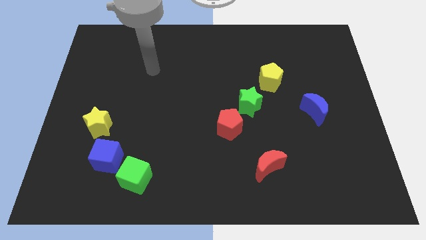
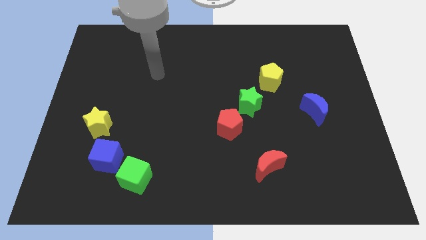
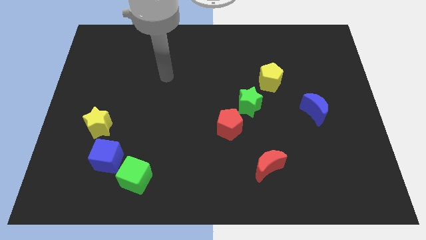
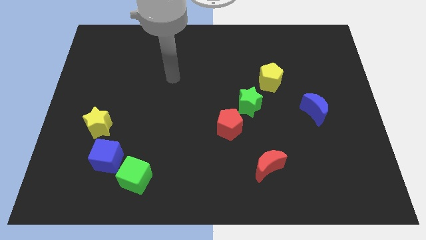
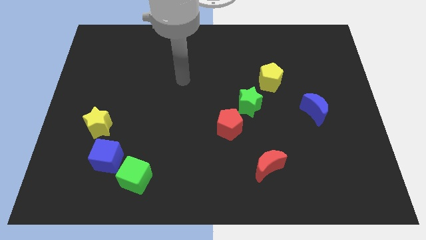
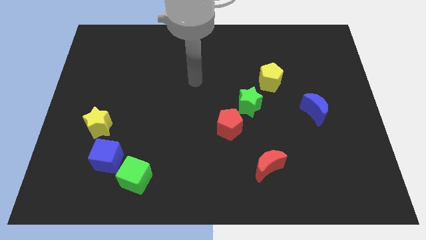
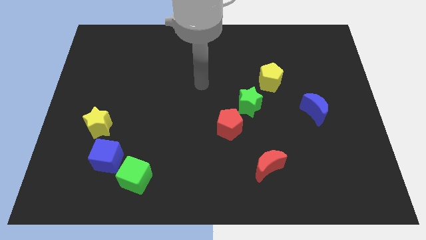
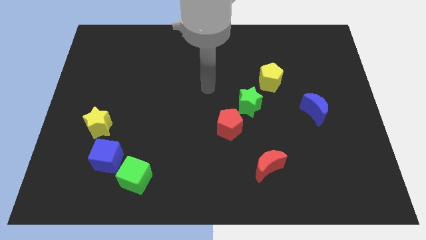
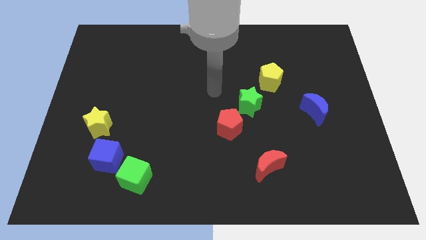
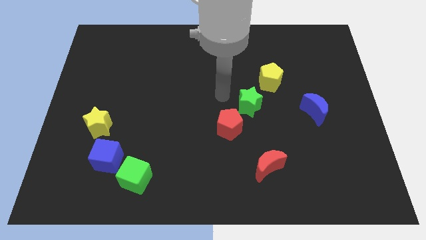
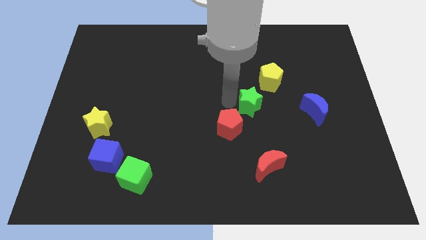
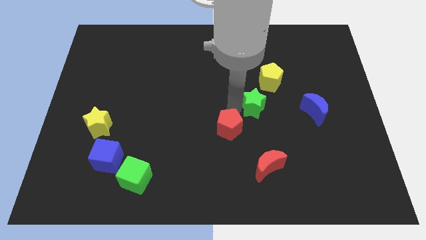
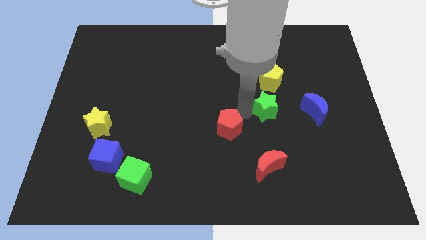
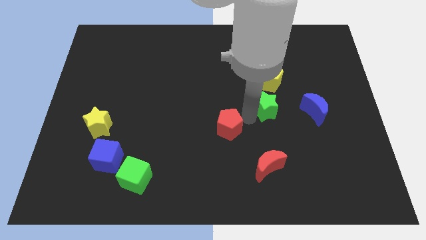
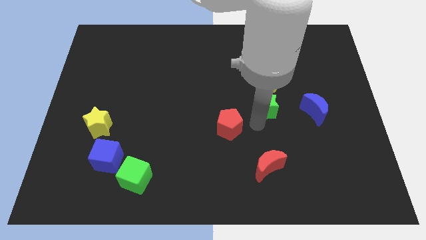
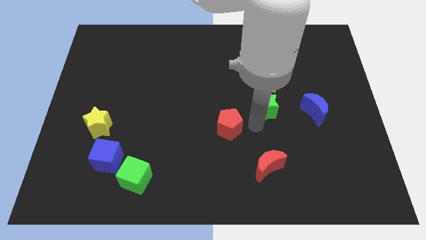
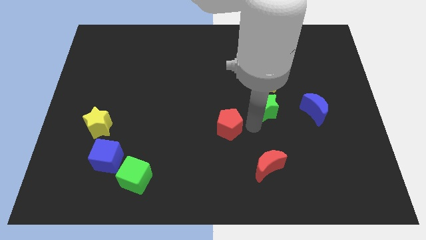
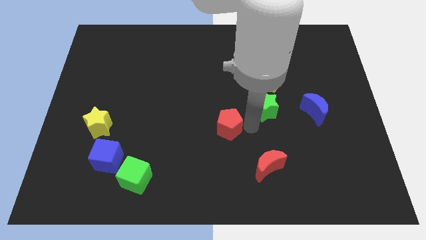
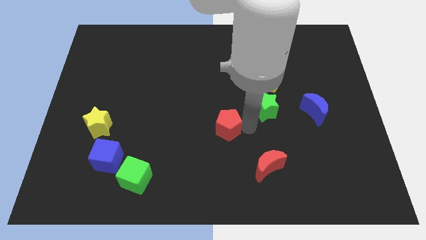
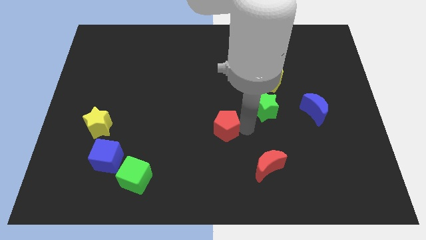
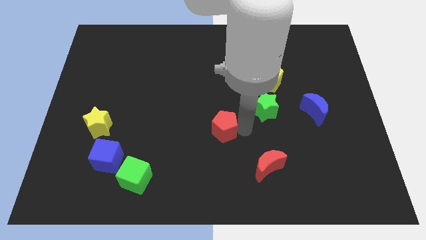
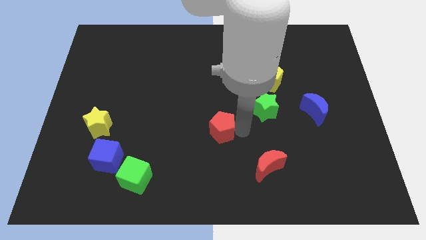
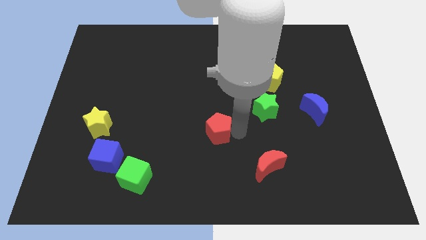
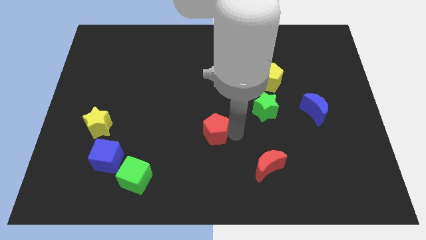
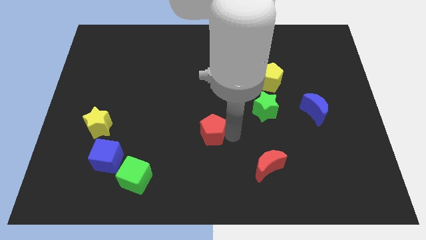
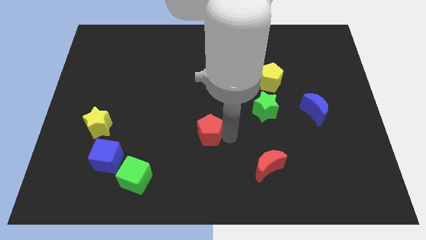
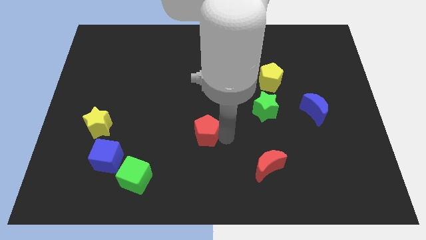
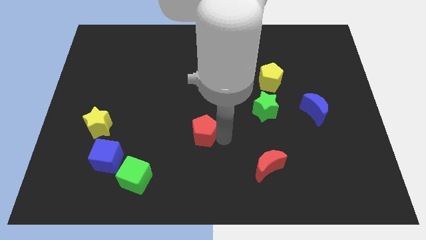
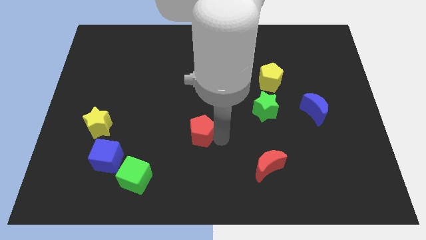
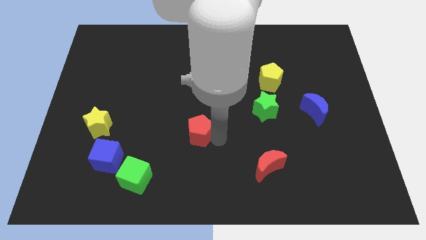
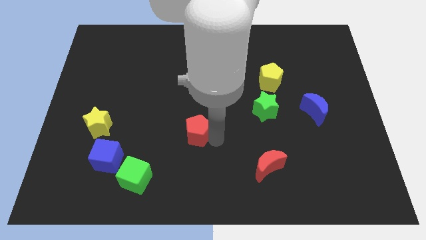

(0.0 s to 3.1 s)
slide the red pentagon a little bit left

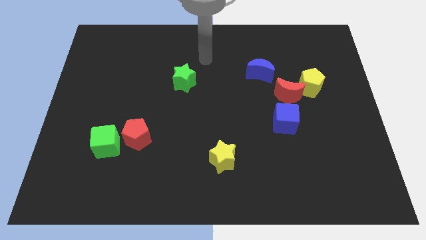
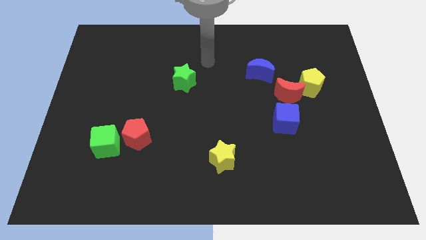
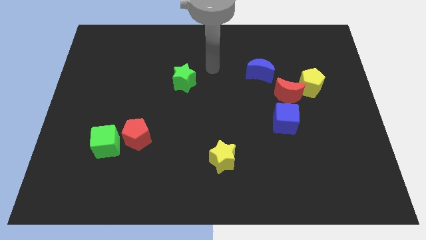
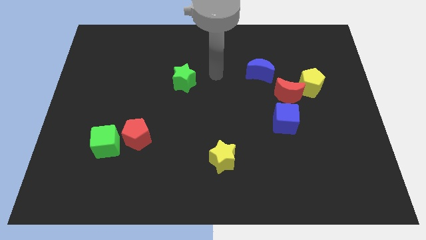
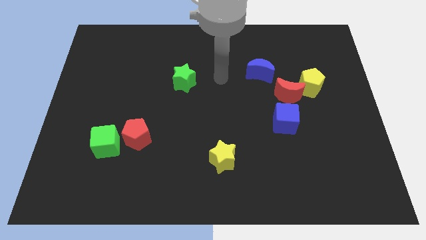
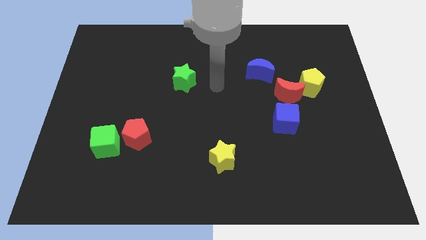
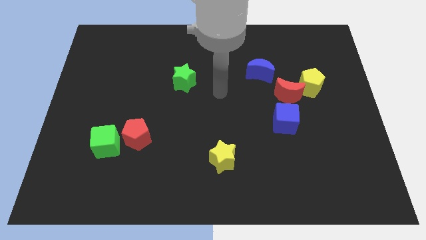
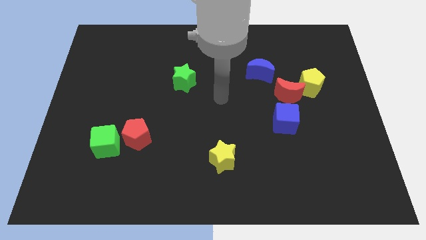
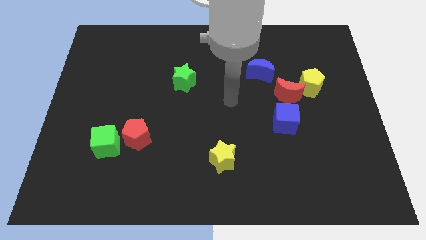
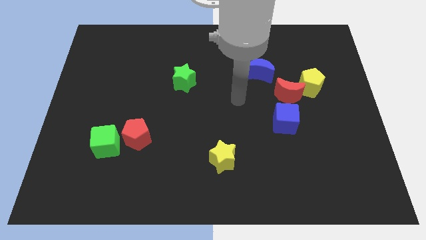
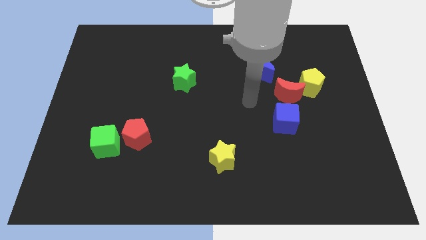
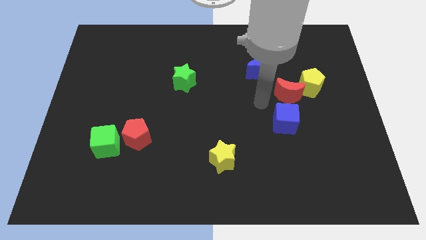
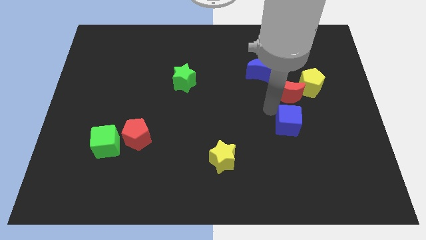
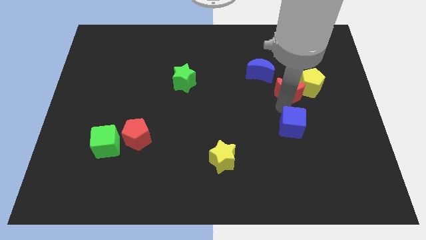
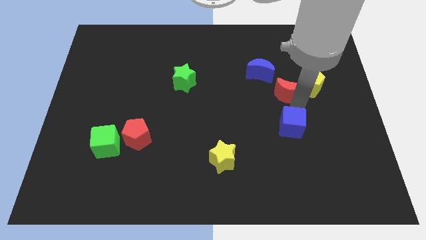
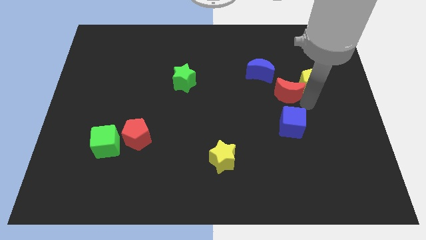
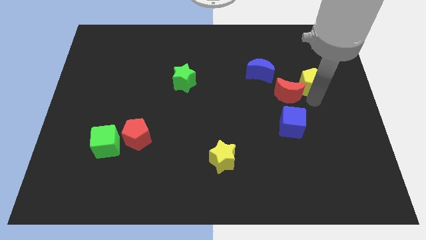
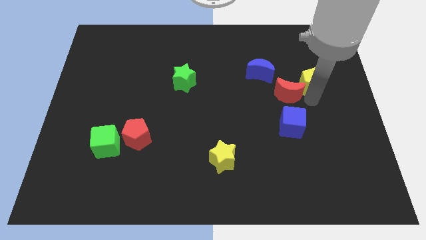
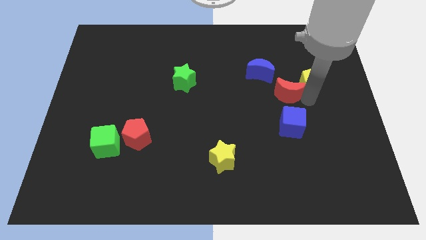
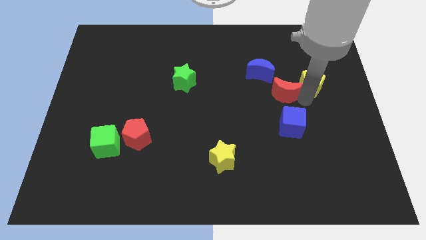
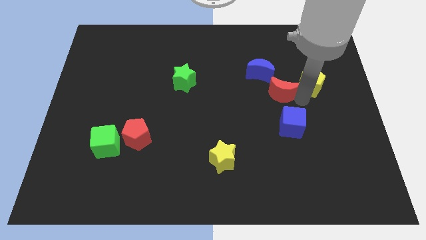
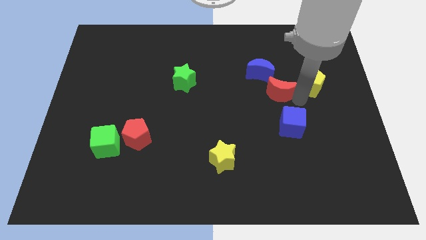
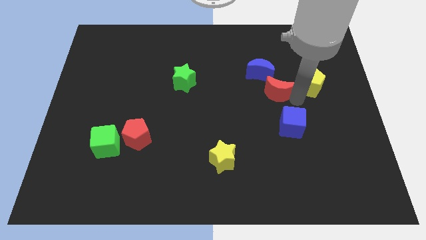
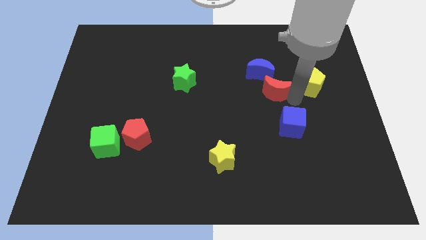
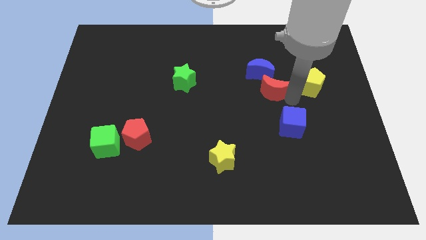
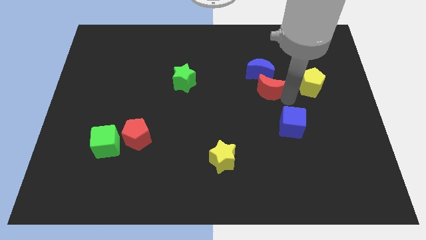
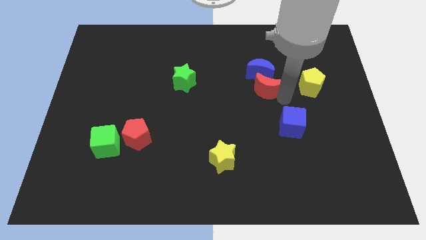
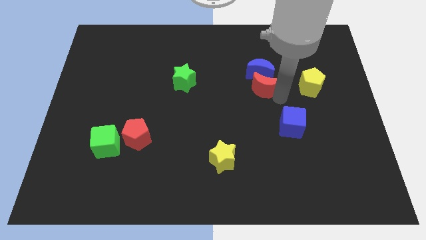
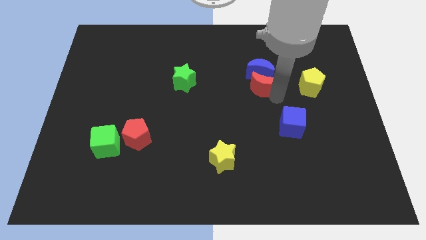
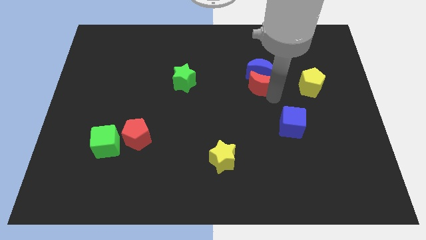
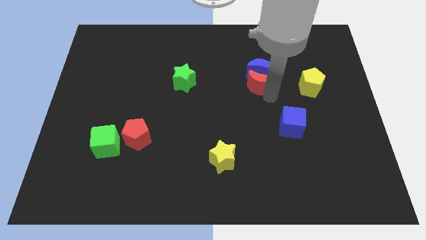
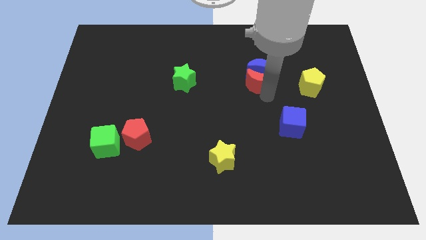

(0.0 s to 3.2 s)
slightly push the red moon diagonally upwards and to the left

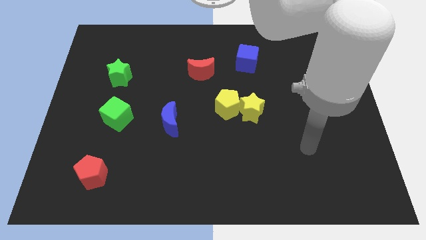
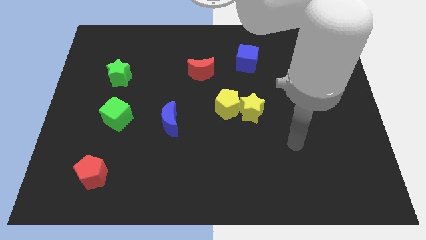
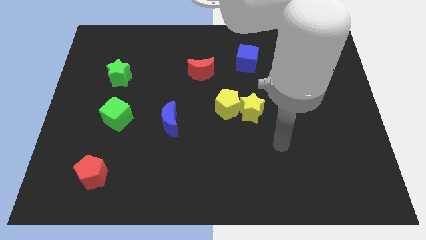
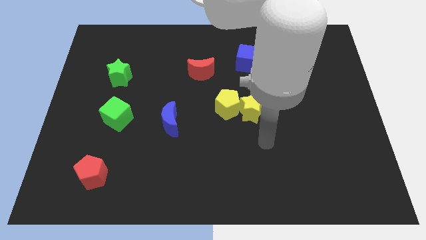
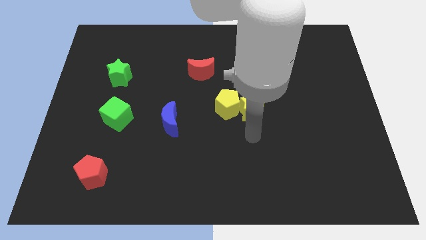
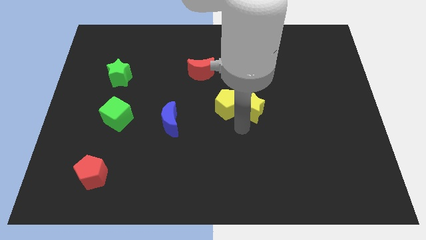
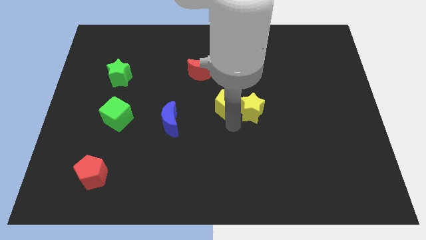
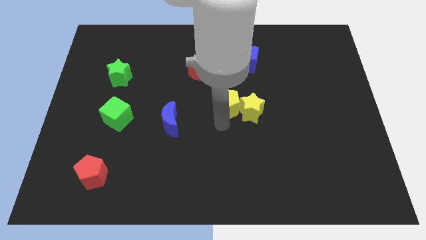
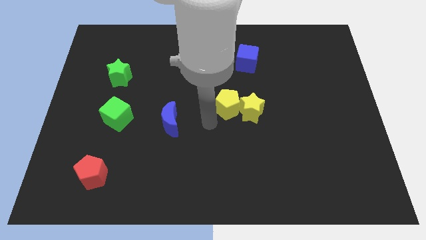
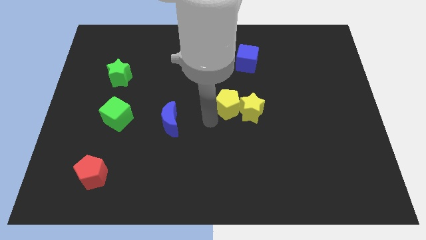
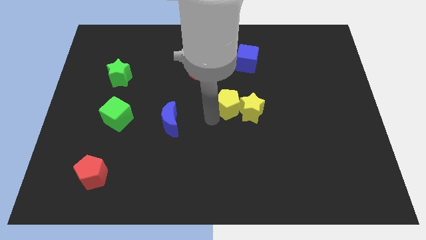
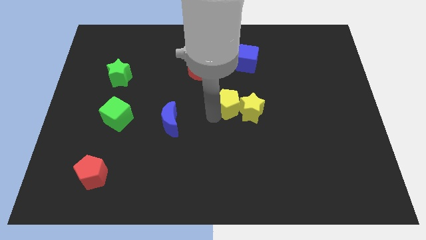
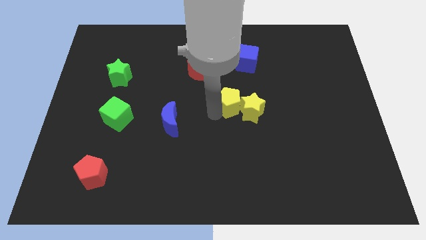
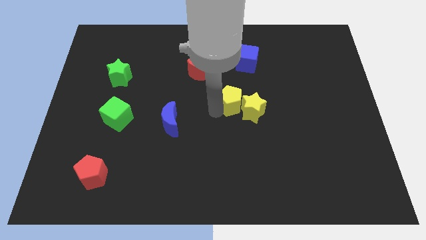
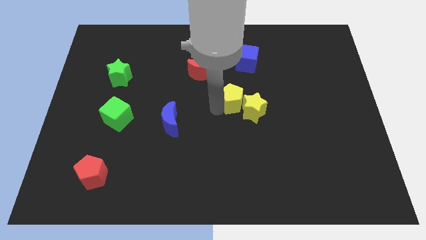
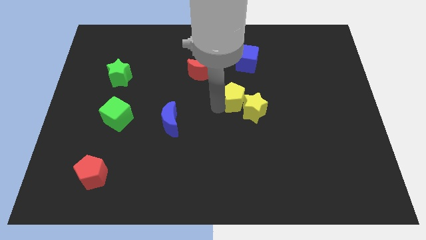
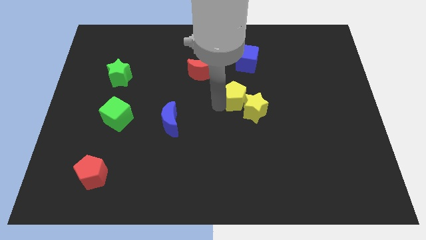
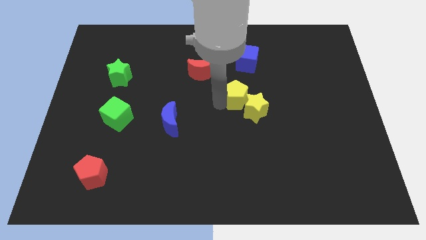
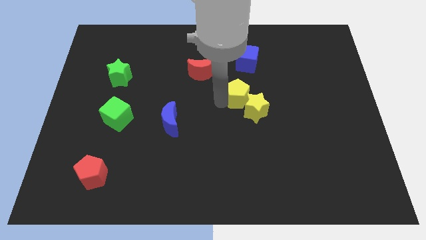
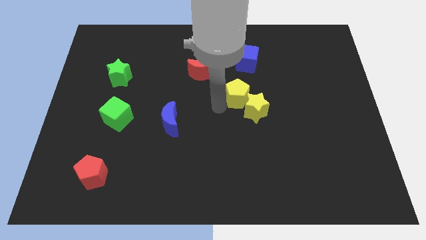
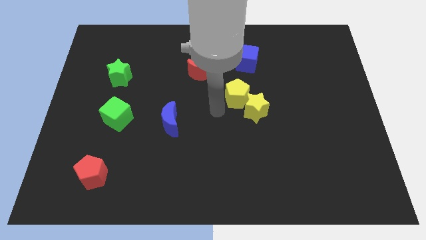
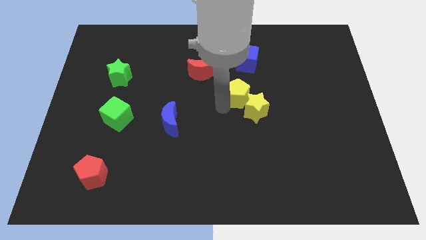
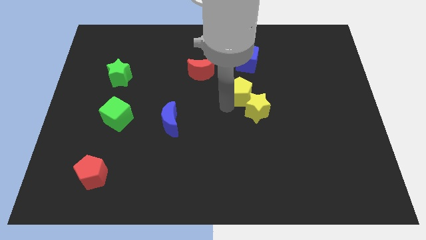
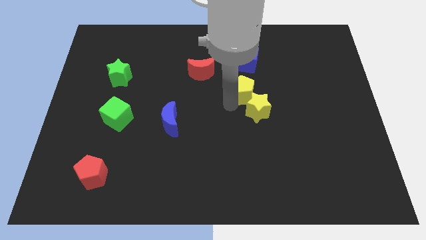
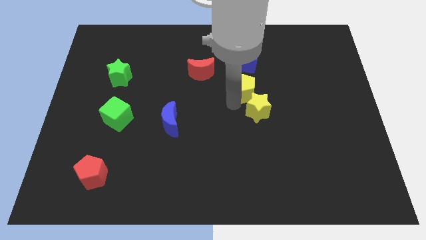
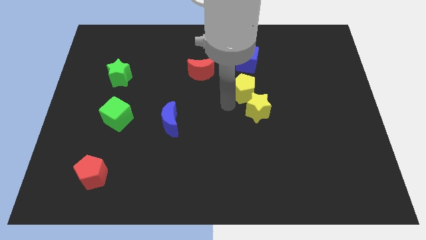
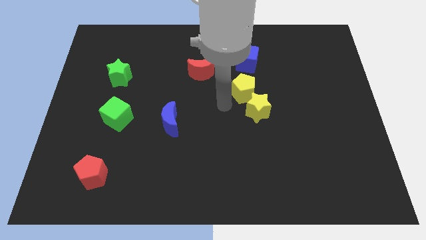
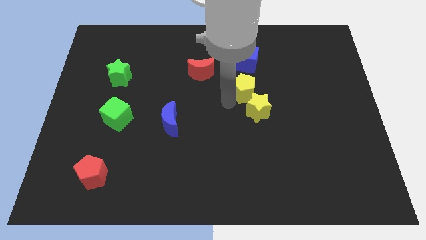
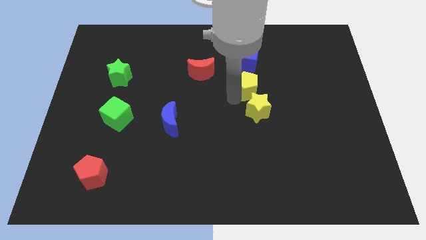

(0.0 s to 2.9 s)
move the yellow pentagon somewhat diagonally up and right
